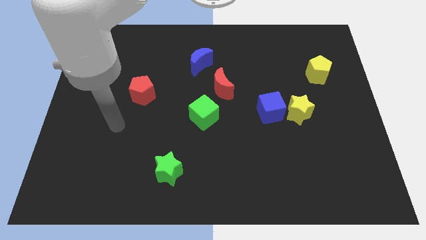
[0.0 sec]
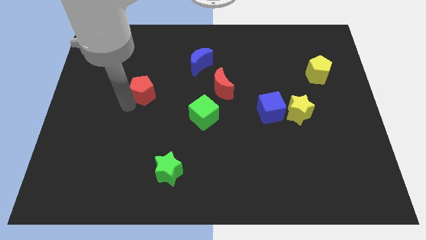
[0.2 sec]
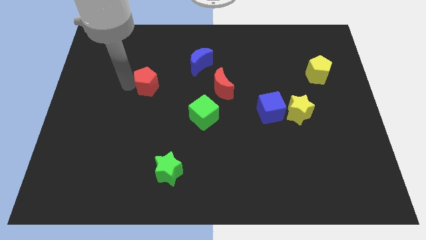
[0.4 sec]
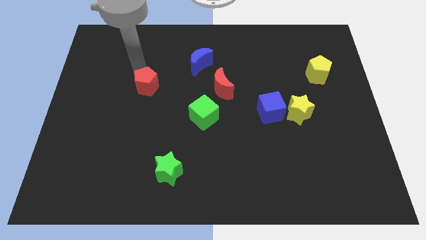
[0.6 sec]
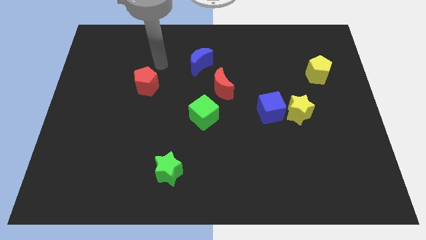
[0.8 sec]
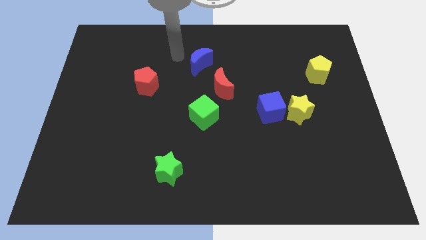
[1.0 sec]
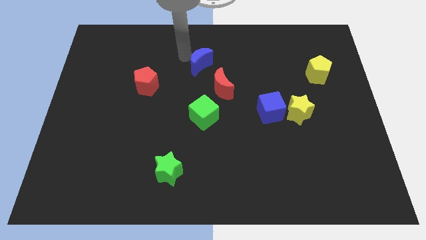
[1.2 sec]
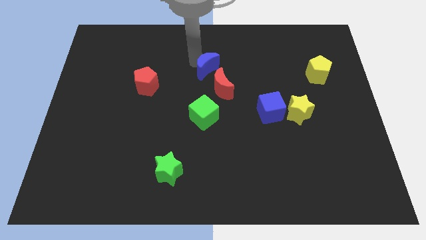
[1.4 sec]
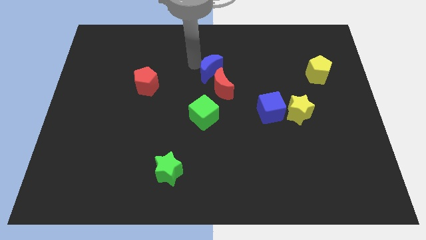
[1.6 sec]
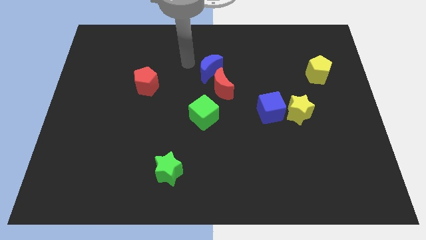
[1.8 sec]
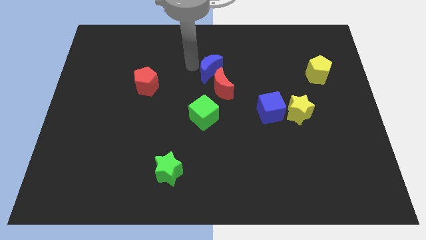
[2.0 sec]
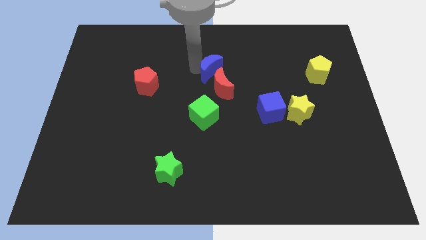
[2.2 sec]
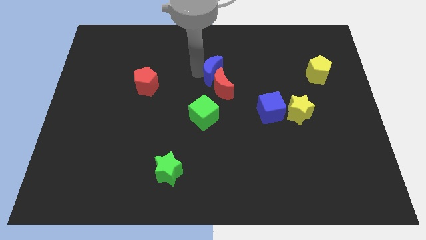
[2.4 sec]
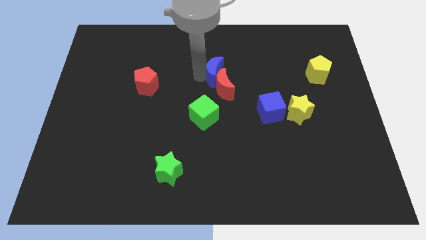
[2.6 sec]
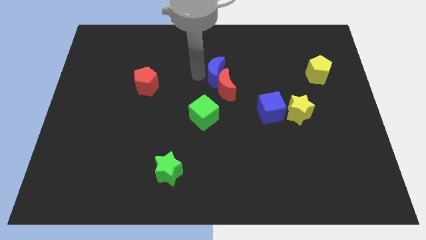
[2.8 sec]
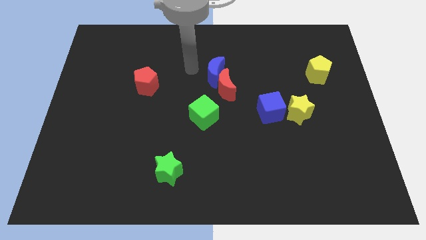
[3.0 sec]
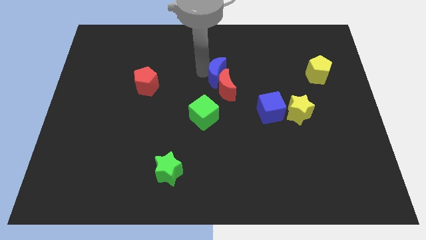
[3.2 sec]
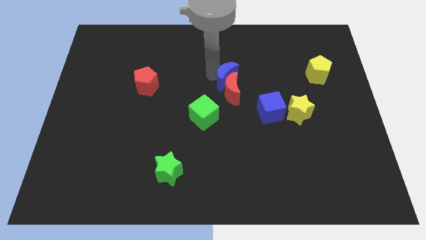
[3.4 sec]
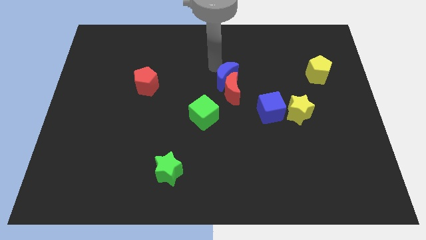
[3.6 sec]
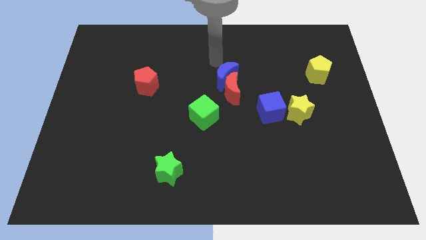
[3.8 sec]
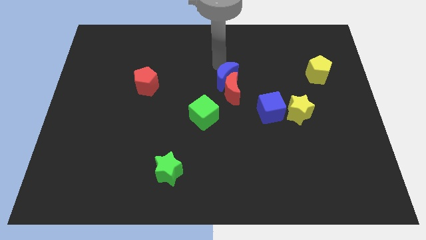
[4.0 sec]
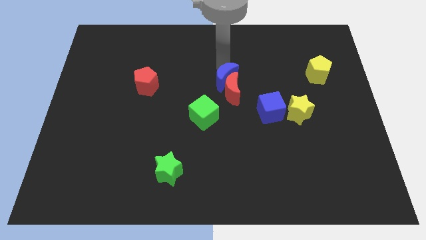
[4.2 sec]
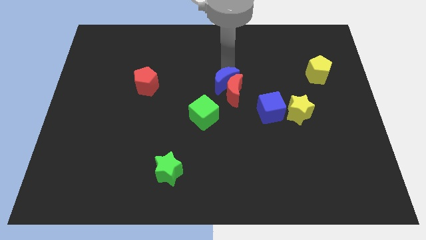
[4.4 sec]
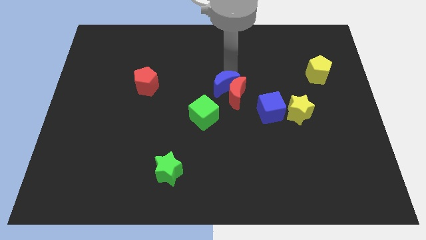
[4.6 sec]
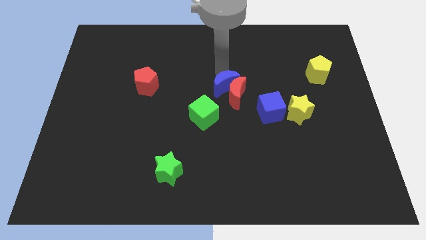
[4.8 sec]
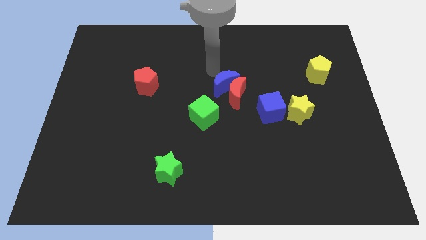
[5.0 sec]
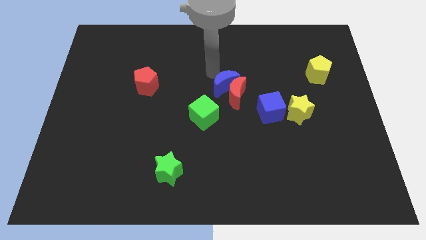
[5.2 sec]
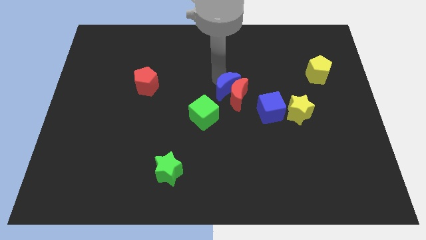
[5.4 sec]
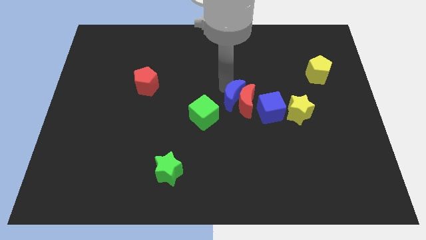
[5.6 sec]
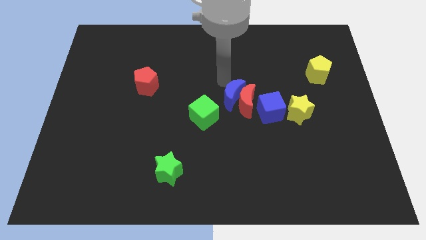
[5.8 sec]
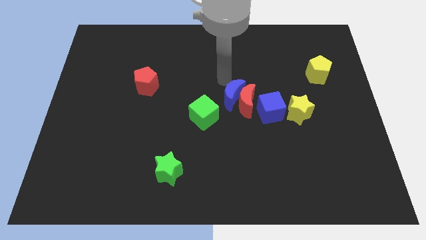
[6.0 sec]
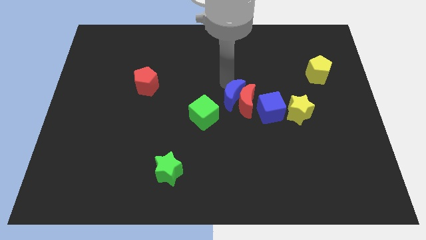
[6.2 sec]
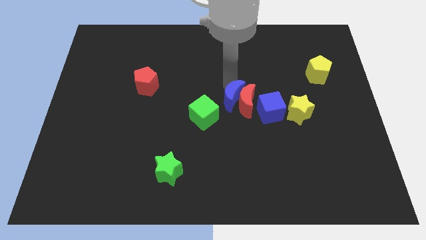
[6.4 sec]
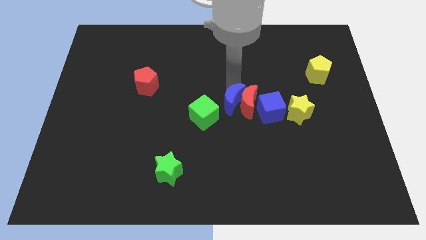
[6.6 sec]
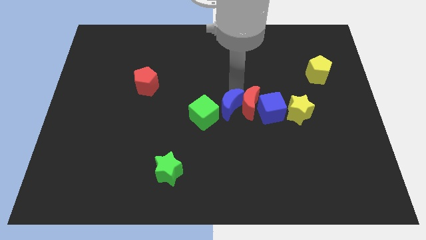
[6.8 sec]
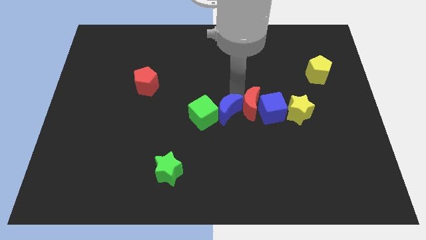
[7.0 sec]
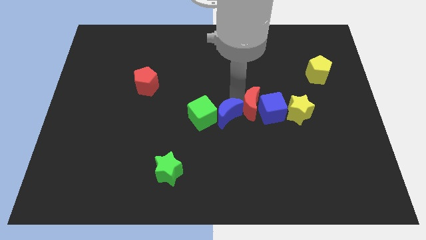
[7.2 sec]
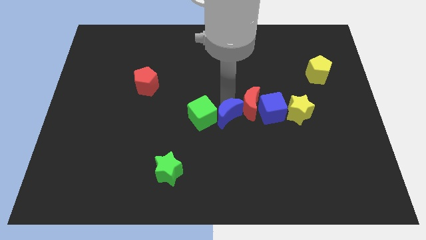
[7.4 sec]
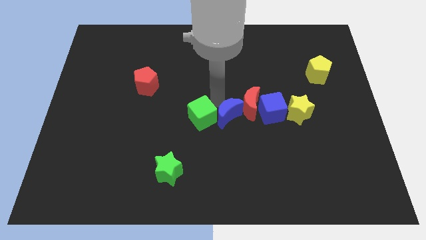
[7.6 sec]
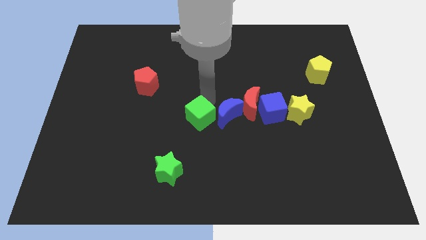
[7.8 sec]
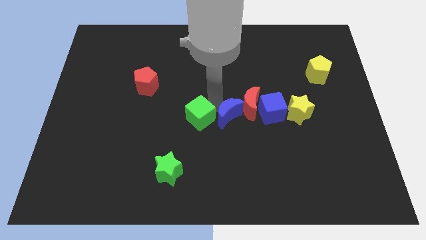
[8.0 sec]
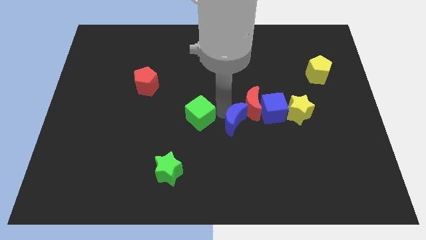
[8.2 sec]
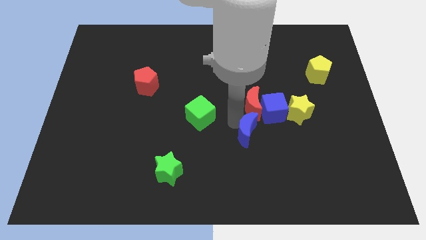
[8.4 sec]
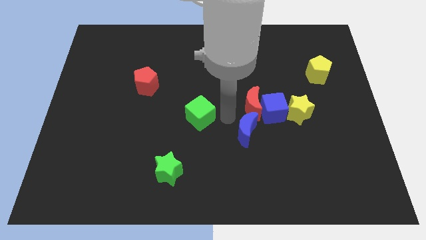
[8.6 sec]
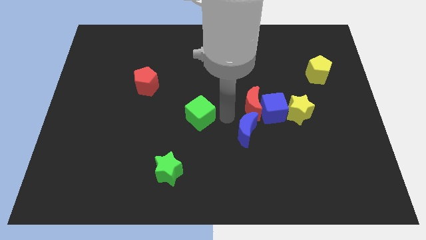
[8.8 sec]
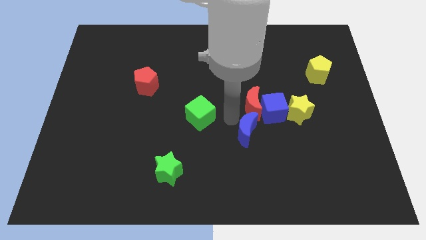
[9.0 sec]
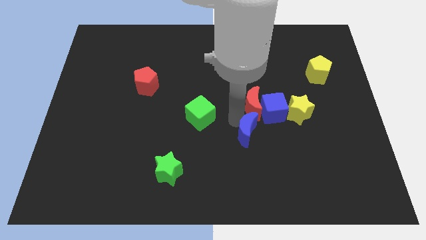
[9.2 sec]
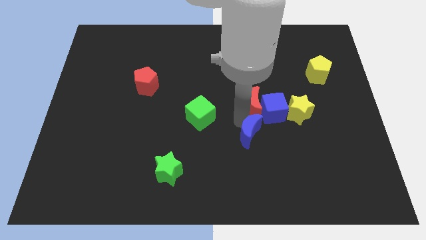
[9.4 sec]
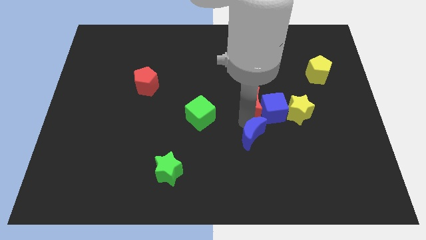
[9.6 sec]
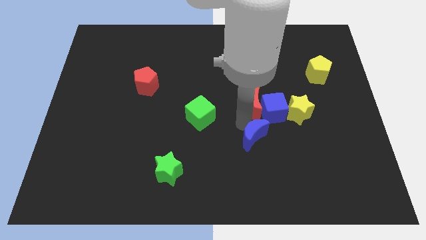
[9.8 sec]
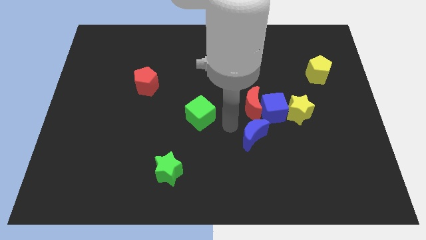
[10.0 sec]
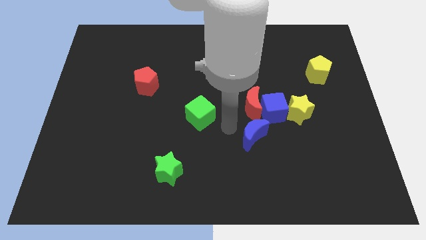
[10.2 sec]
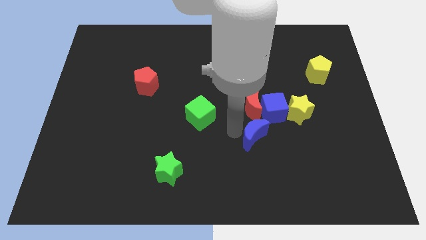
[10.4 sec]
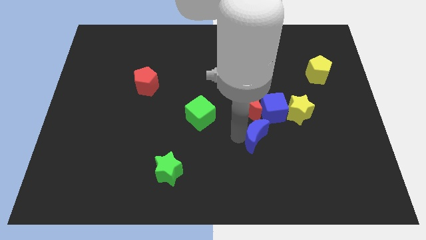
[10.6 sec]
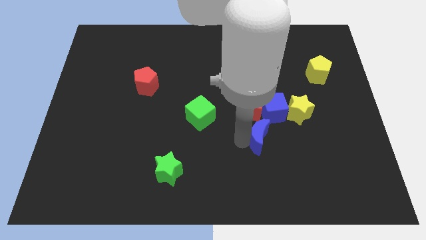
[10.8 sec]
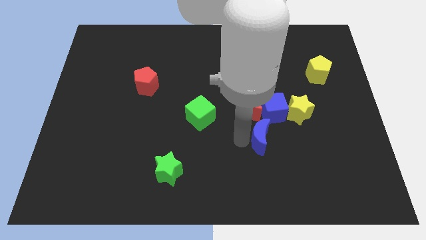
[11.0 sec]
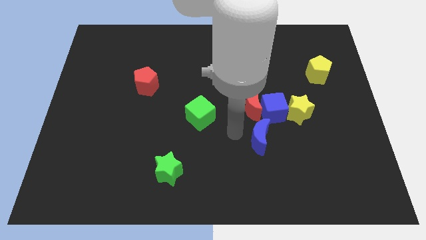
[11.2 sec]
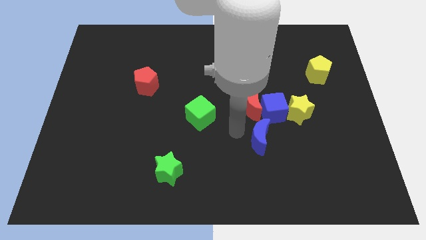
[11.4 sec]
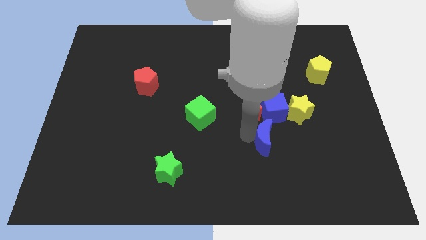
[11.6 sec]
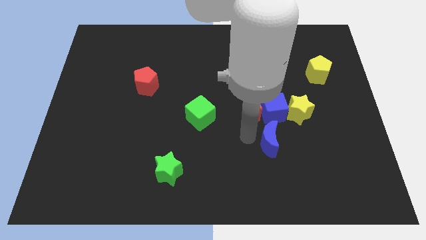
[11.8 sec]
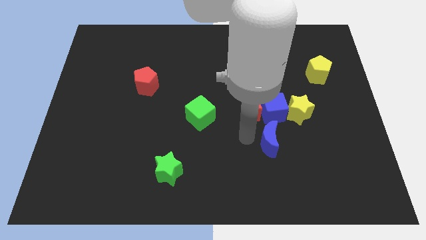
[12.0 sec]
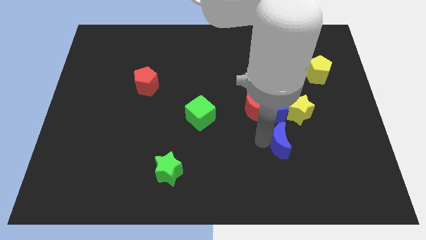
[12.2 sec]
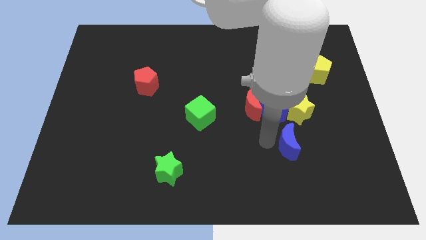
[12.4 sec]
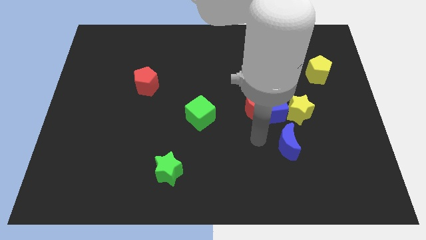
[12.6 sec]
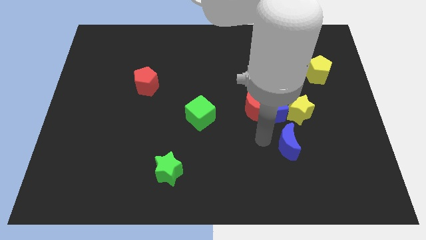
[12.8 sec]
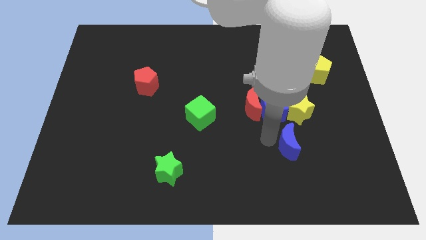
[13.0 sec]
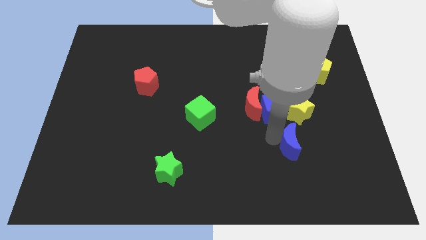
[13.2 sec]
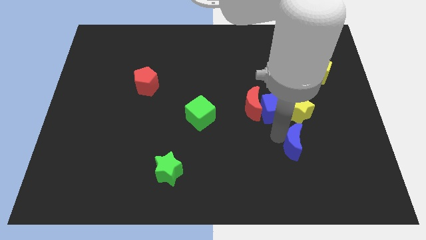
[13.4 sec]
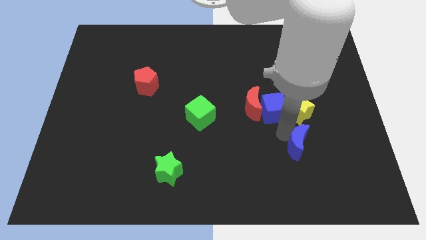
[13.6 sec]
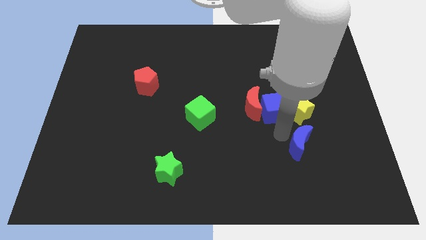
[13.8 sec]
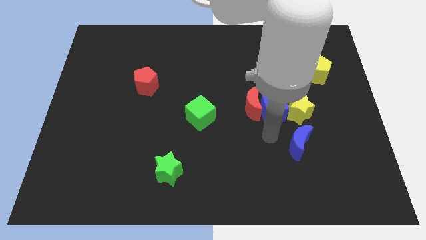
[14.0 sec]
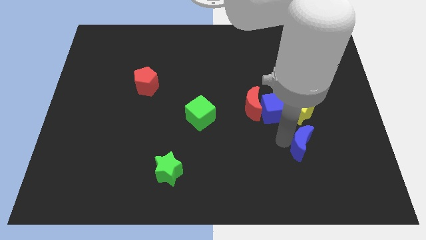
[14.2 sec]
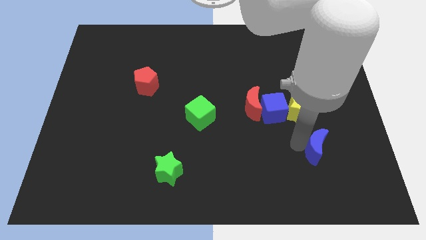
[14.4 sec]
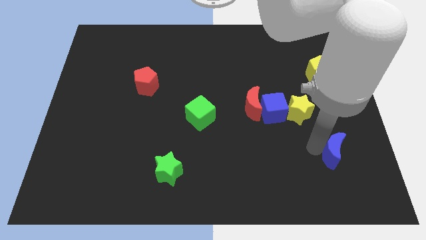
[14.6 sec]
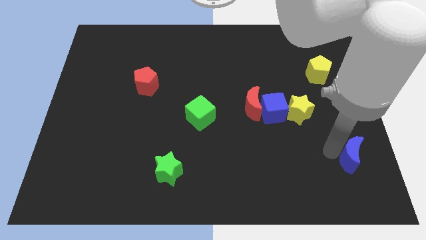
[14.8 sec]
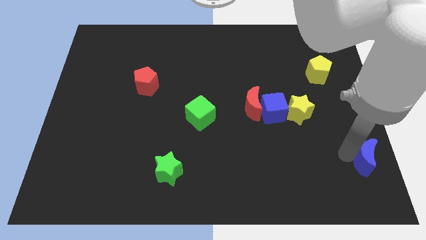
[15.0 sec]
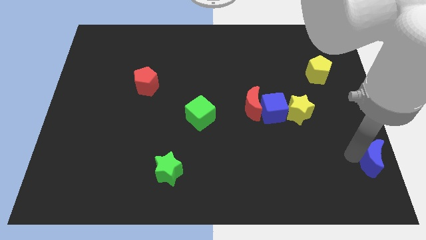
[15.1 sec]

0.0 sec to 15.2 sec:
slide the blue moon to the bottom right corner
